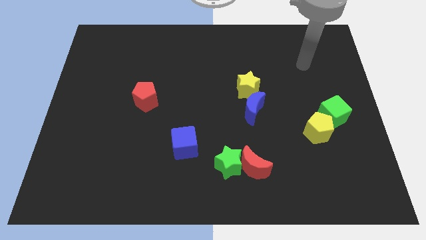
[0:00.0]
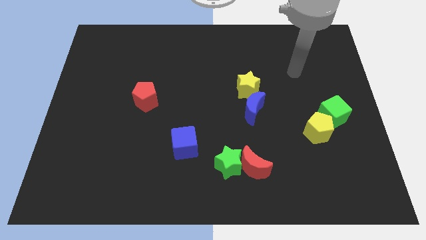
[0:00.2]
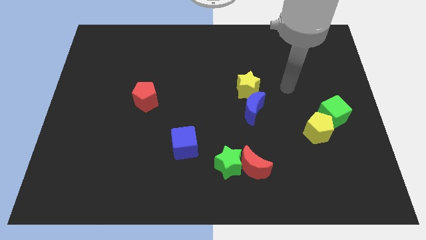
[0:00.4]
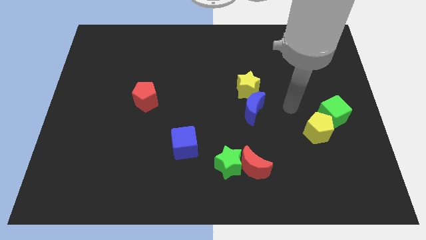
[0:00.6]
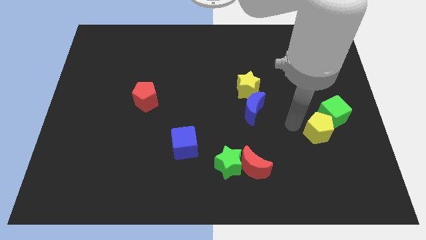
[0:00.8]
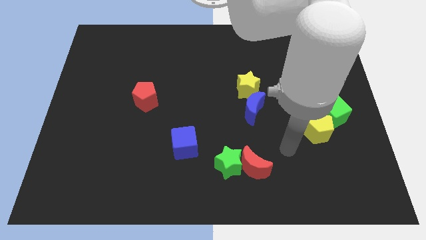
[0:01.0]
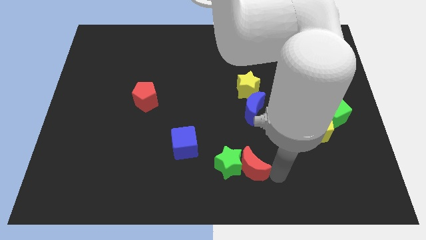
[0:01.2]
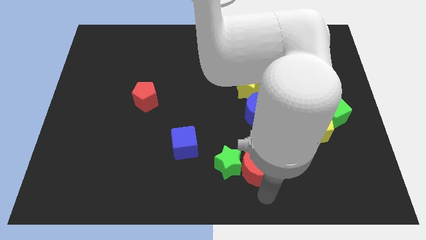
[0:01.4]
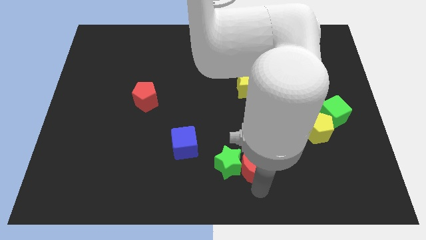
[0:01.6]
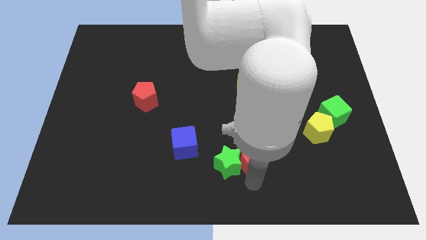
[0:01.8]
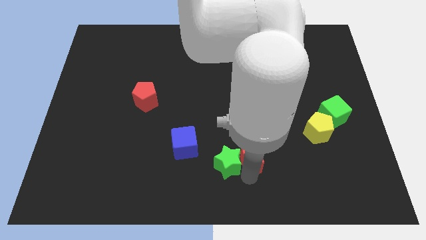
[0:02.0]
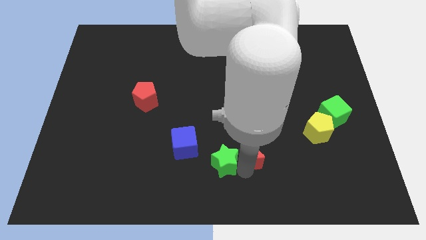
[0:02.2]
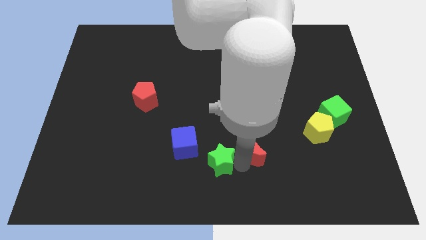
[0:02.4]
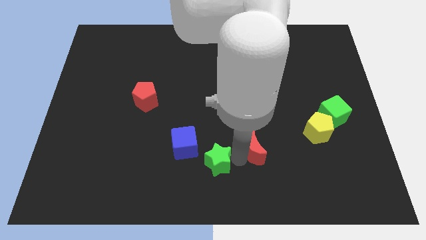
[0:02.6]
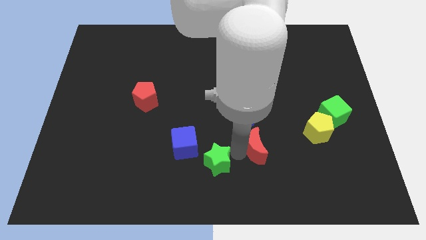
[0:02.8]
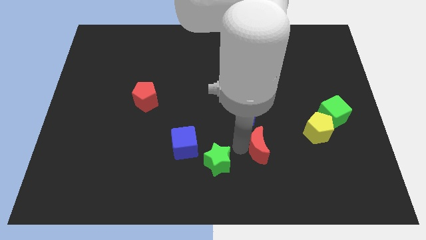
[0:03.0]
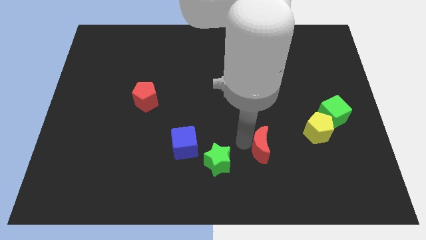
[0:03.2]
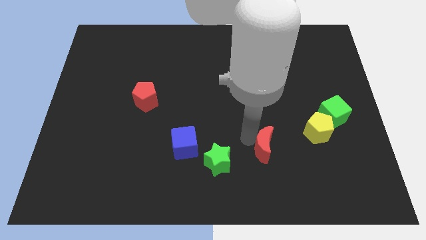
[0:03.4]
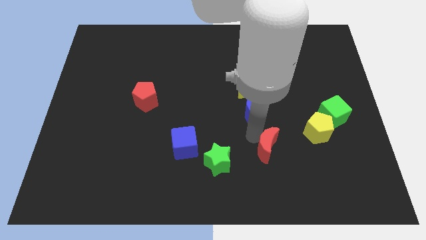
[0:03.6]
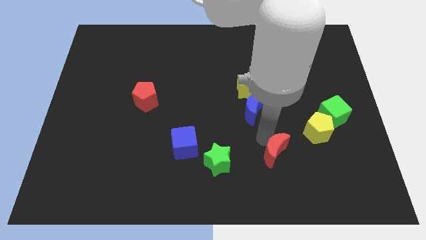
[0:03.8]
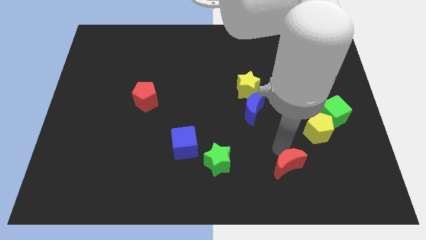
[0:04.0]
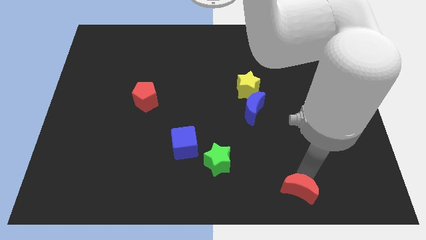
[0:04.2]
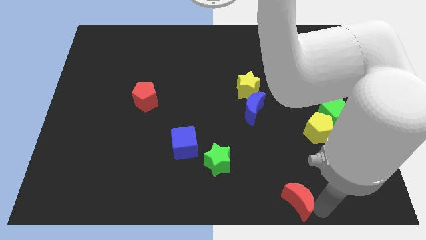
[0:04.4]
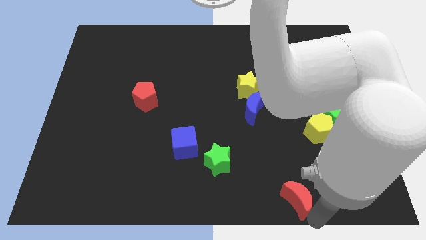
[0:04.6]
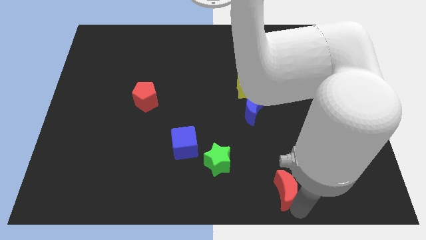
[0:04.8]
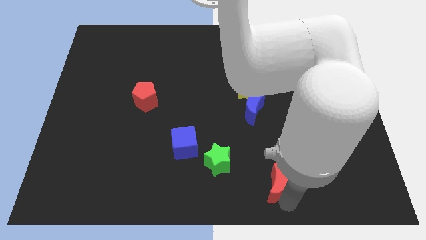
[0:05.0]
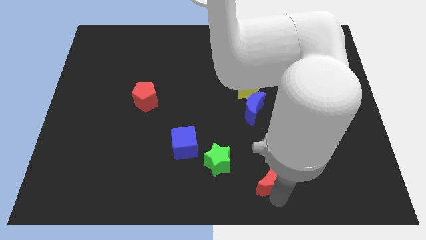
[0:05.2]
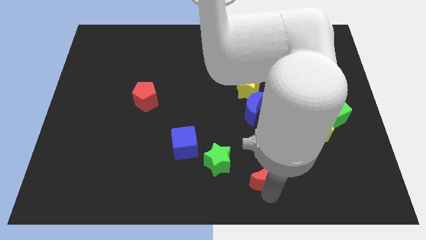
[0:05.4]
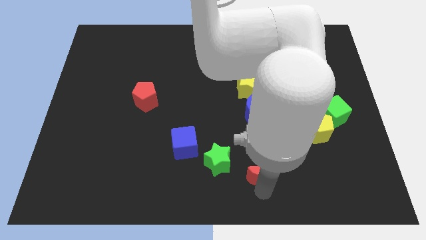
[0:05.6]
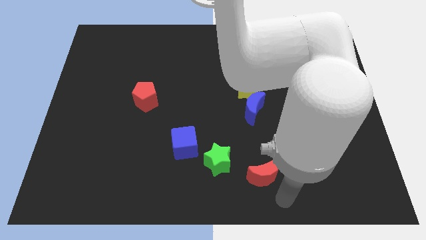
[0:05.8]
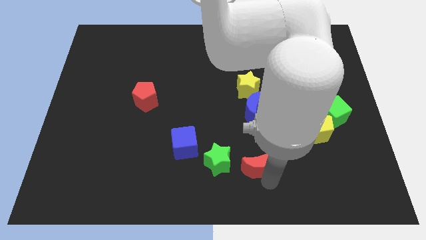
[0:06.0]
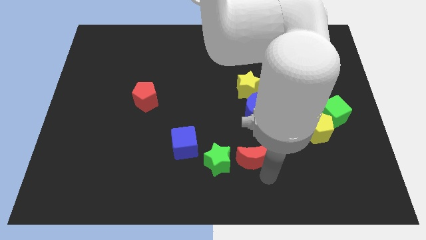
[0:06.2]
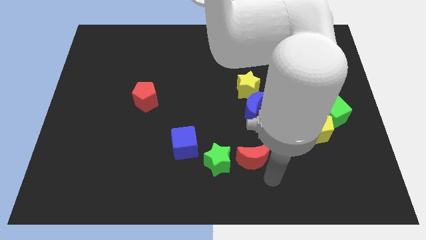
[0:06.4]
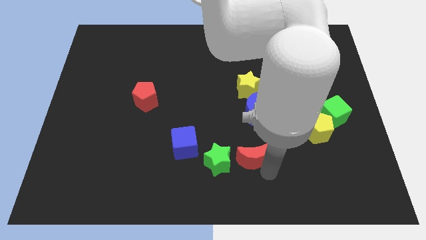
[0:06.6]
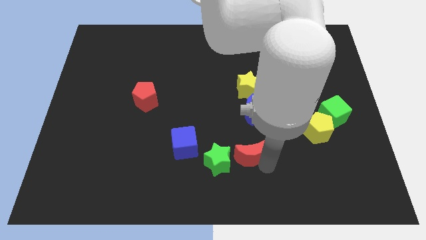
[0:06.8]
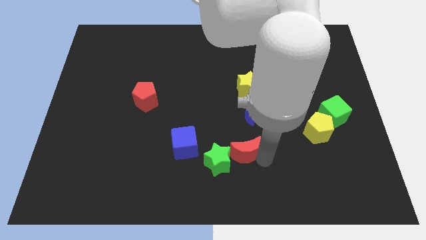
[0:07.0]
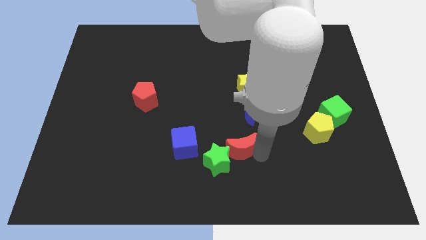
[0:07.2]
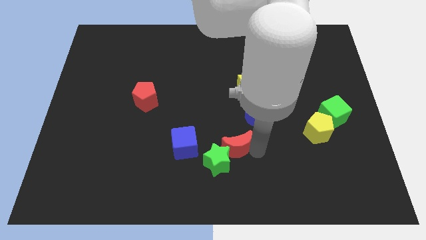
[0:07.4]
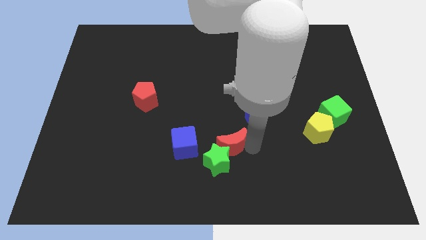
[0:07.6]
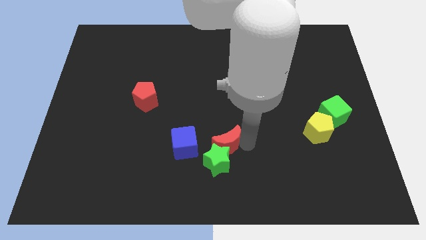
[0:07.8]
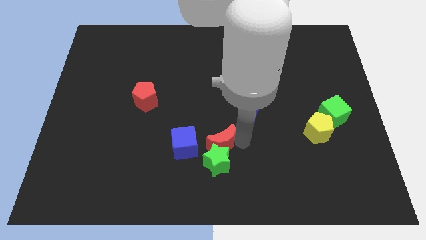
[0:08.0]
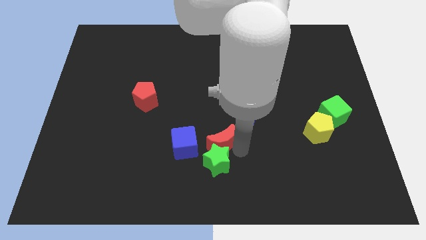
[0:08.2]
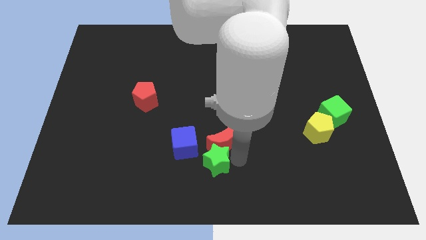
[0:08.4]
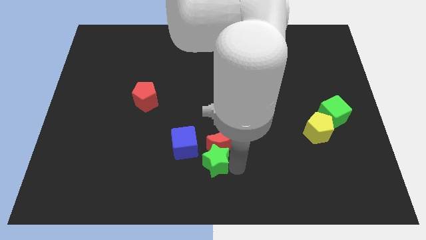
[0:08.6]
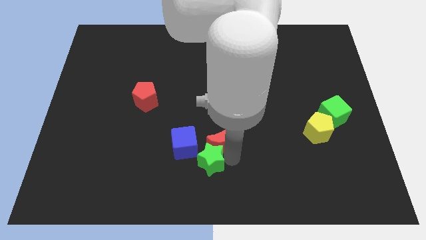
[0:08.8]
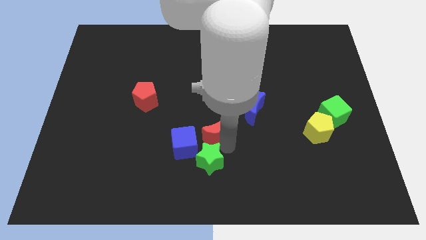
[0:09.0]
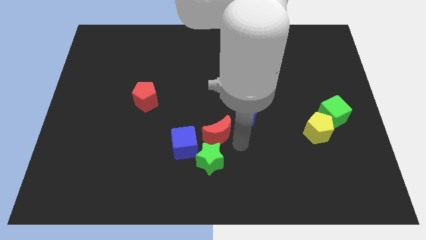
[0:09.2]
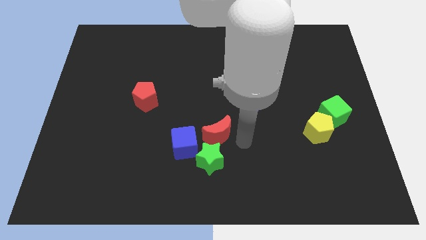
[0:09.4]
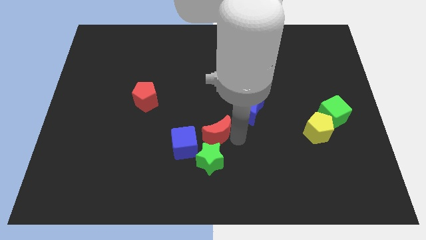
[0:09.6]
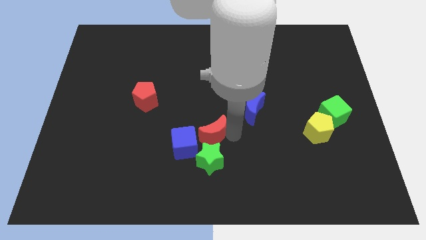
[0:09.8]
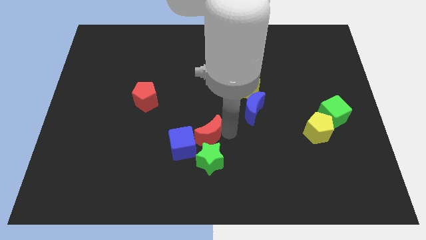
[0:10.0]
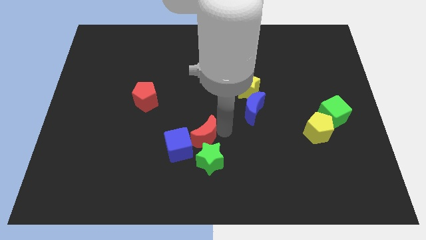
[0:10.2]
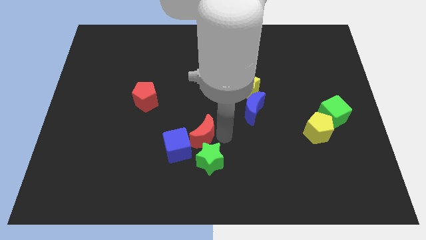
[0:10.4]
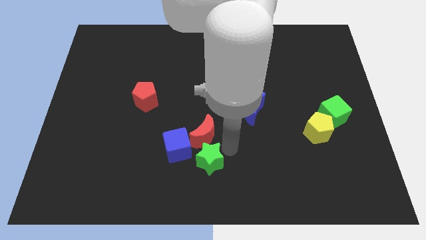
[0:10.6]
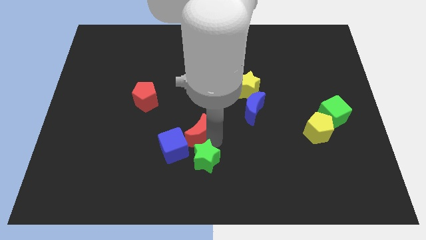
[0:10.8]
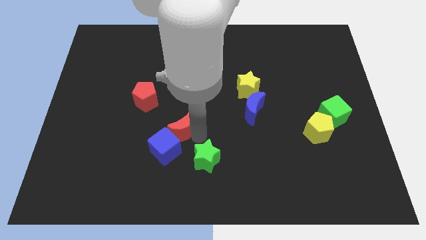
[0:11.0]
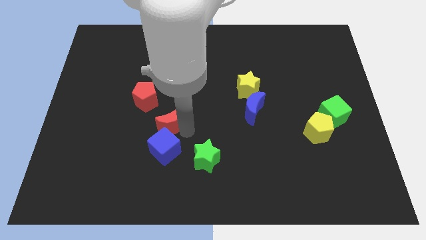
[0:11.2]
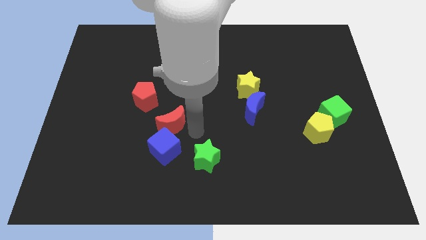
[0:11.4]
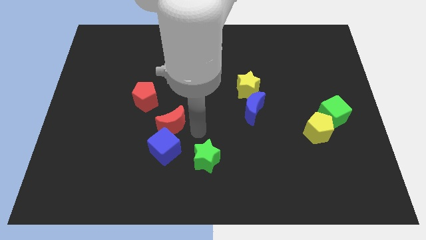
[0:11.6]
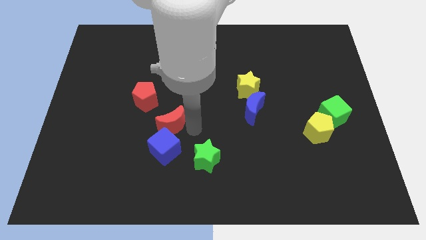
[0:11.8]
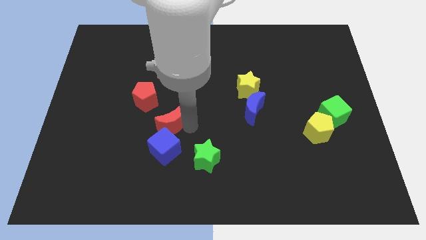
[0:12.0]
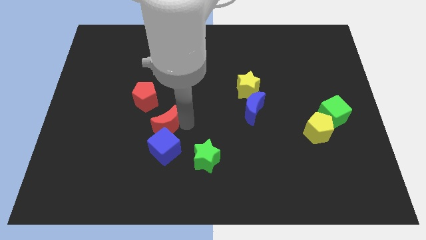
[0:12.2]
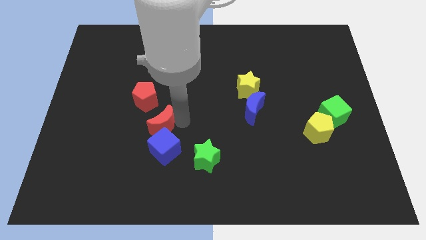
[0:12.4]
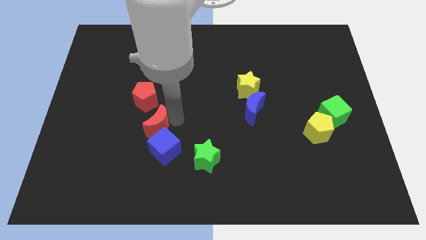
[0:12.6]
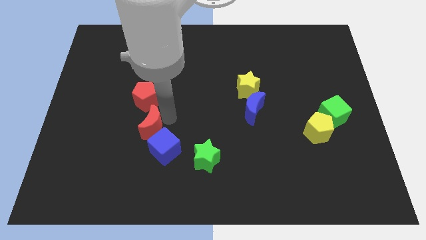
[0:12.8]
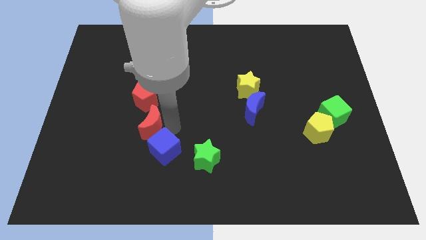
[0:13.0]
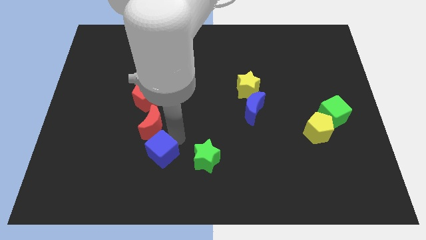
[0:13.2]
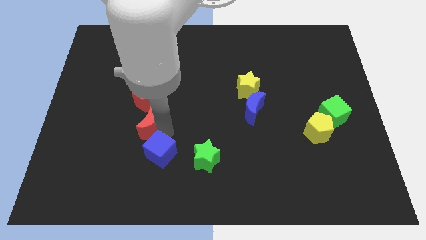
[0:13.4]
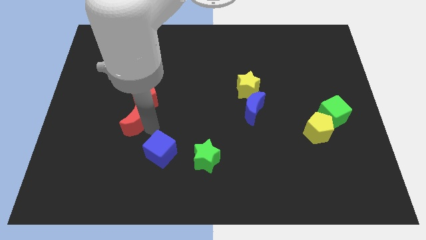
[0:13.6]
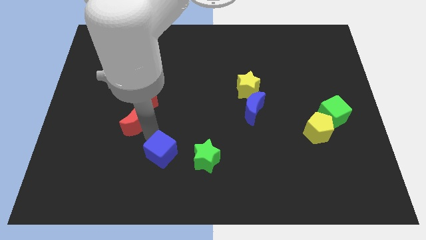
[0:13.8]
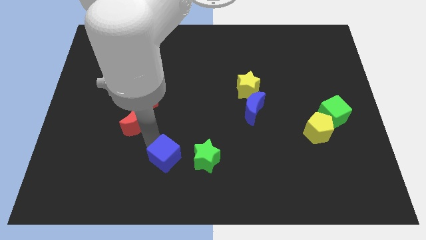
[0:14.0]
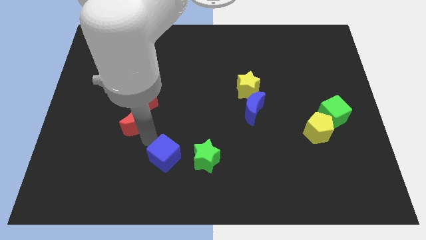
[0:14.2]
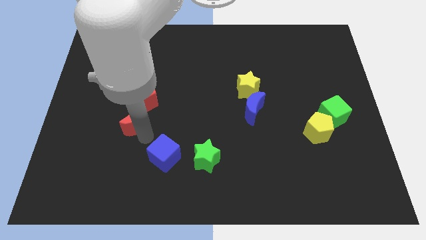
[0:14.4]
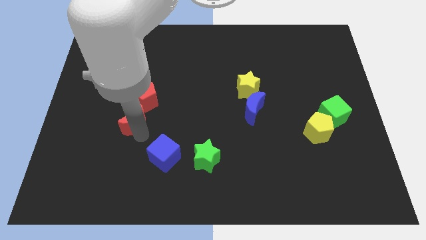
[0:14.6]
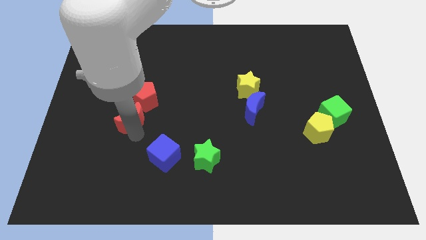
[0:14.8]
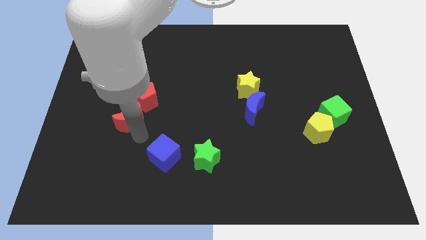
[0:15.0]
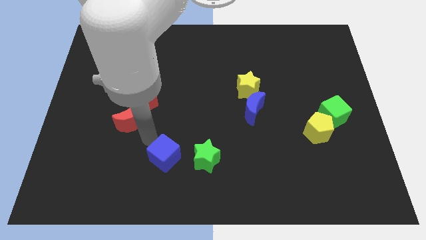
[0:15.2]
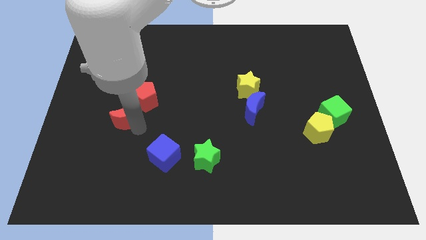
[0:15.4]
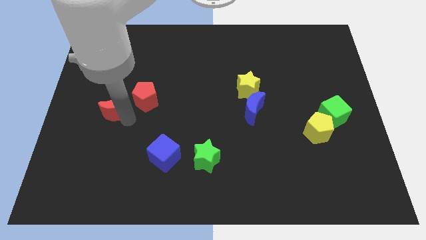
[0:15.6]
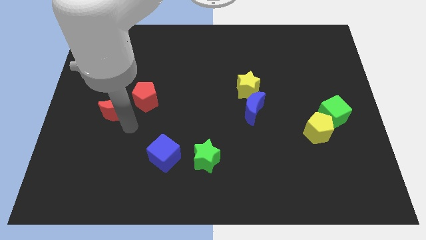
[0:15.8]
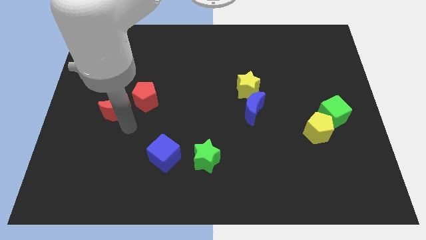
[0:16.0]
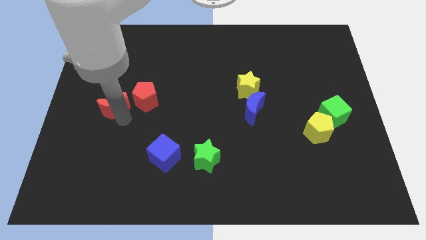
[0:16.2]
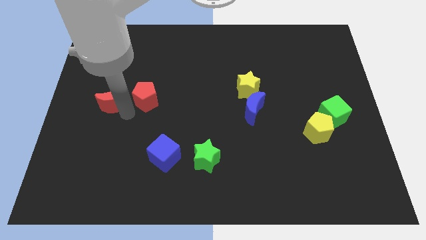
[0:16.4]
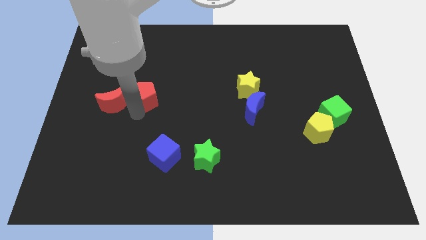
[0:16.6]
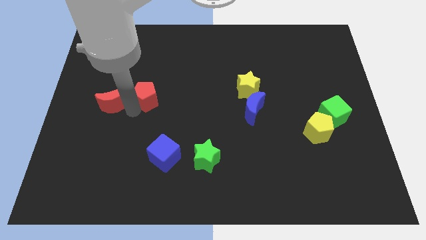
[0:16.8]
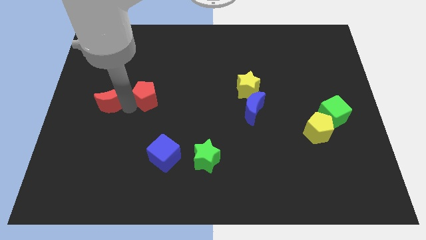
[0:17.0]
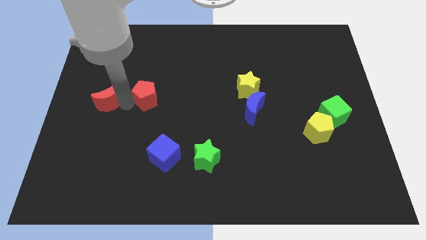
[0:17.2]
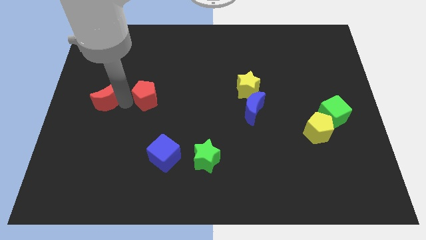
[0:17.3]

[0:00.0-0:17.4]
push the red moon to the left side
